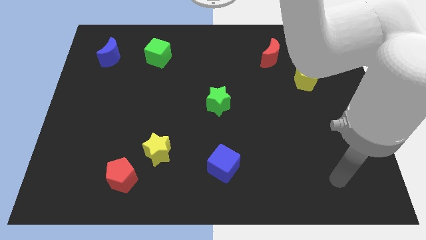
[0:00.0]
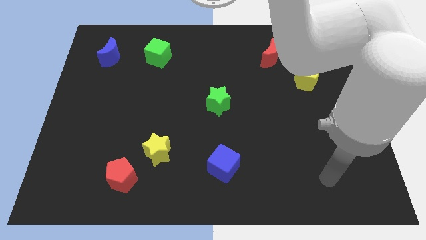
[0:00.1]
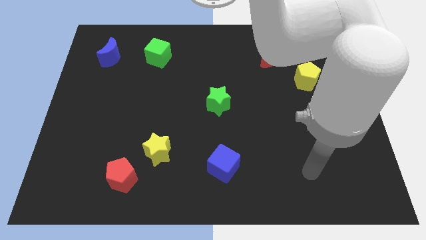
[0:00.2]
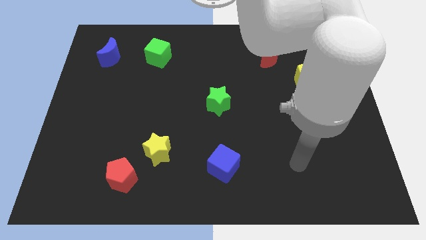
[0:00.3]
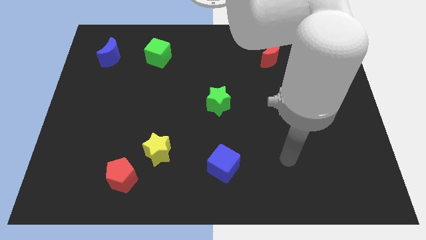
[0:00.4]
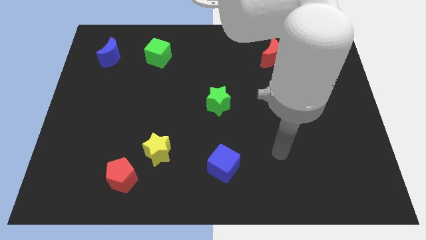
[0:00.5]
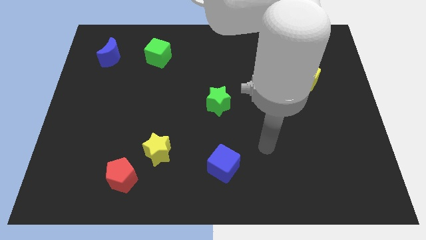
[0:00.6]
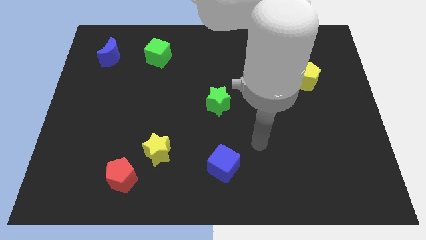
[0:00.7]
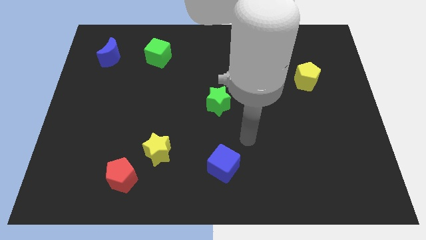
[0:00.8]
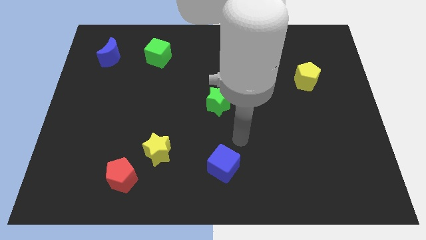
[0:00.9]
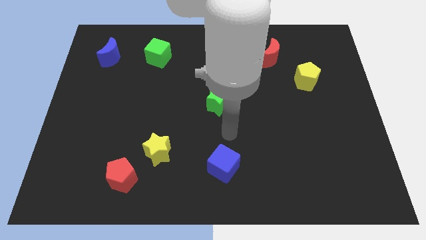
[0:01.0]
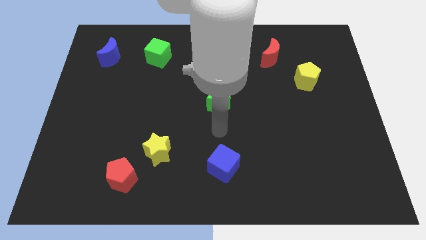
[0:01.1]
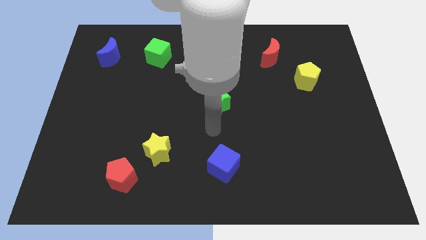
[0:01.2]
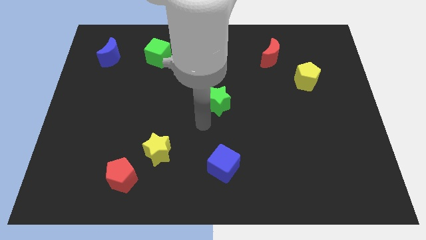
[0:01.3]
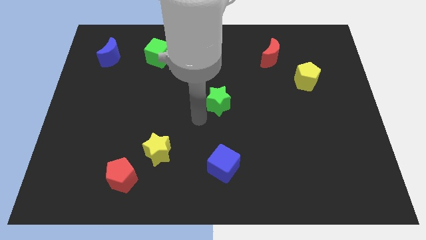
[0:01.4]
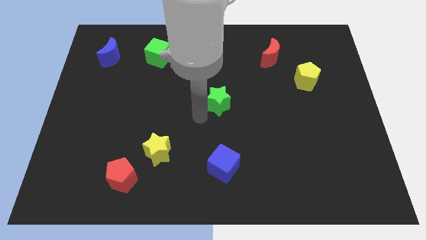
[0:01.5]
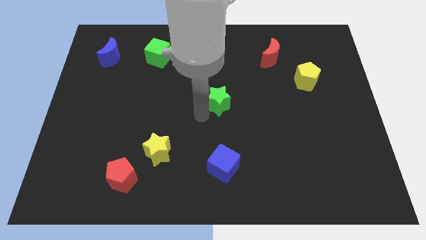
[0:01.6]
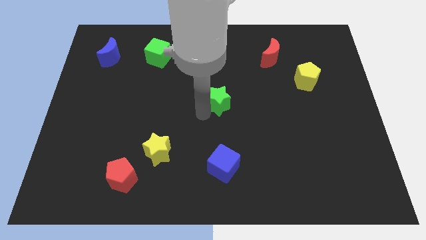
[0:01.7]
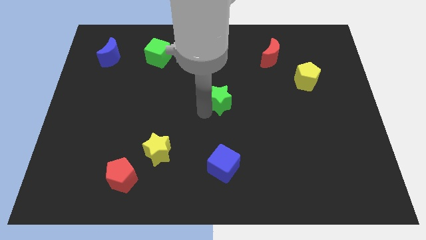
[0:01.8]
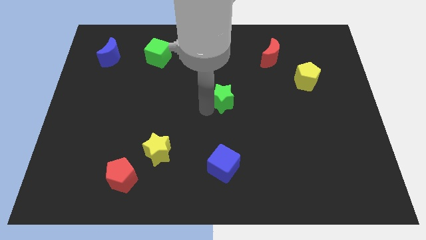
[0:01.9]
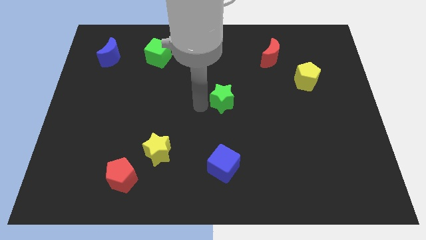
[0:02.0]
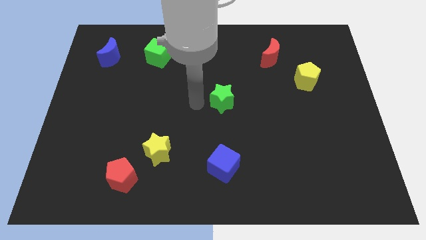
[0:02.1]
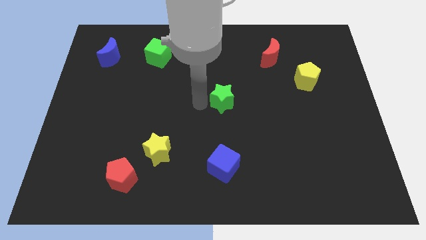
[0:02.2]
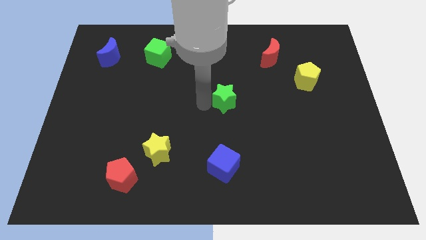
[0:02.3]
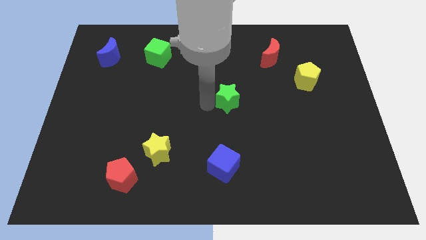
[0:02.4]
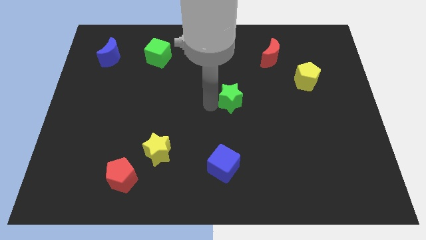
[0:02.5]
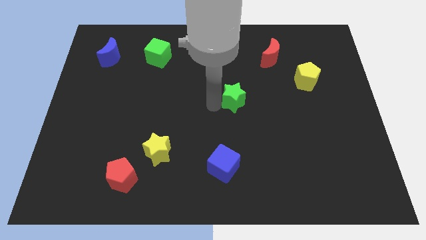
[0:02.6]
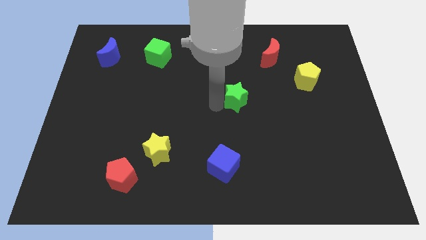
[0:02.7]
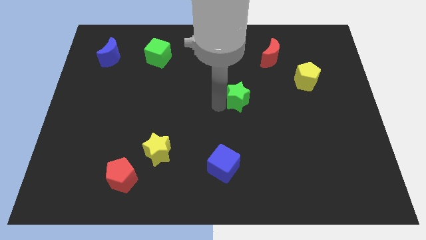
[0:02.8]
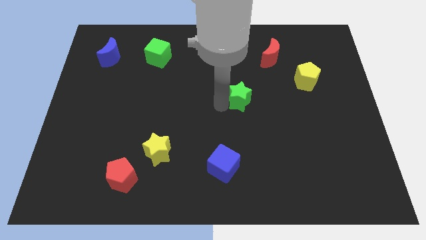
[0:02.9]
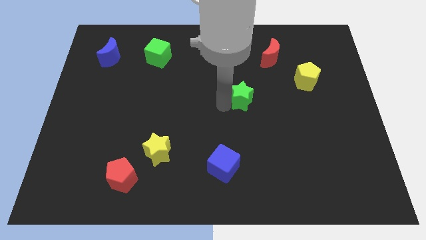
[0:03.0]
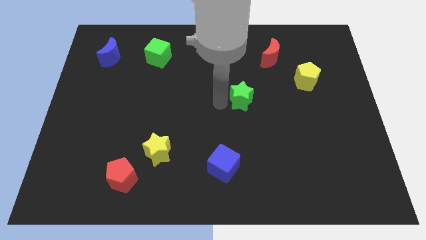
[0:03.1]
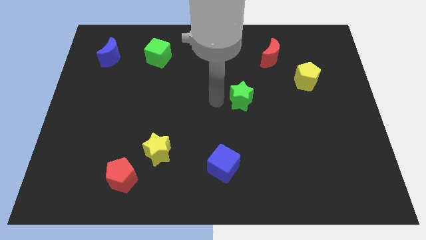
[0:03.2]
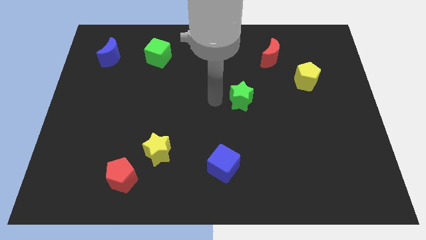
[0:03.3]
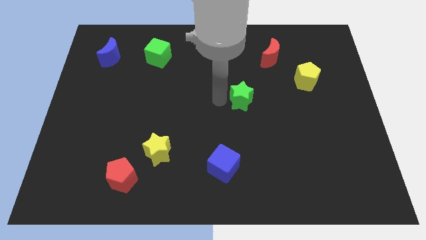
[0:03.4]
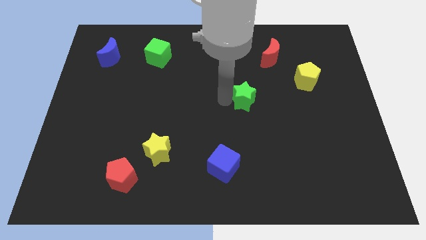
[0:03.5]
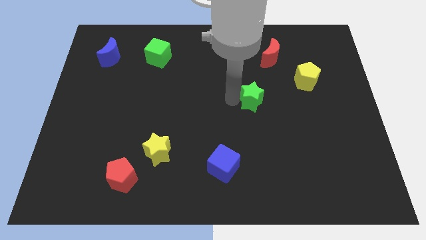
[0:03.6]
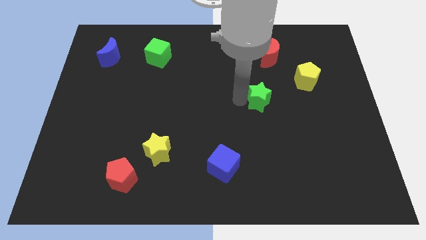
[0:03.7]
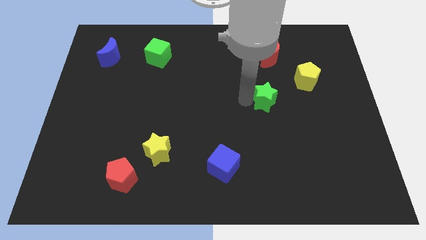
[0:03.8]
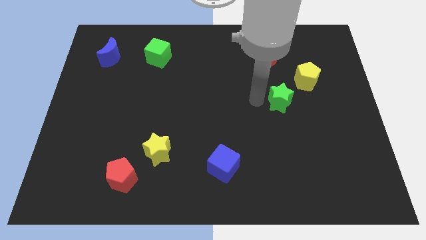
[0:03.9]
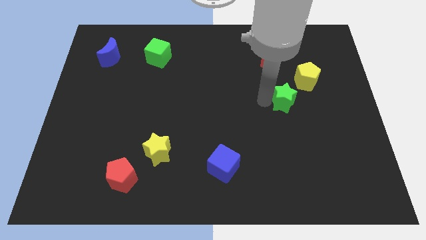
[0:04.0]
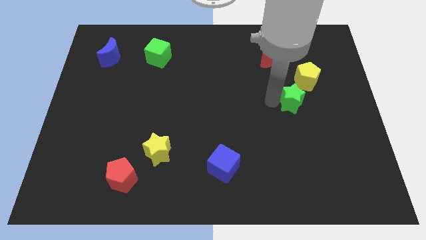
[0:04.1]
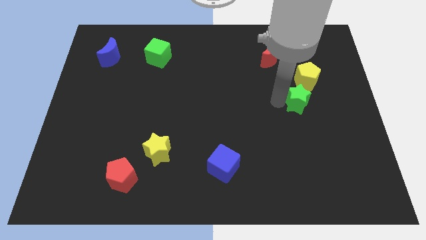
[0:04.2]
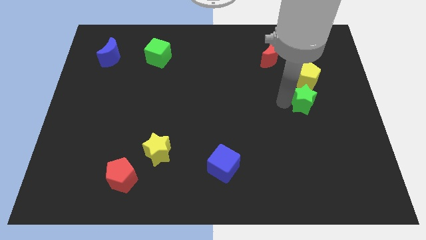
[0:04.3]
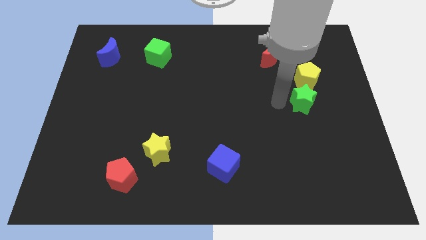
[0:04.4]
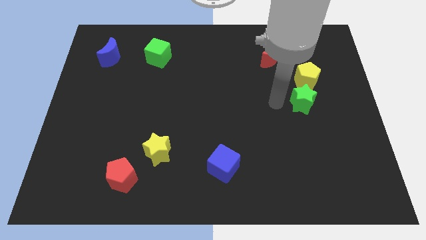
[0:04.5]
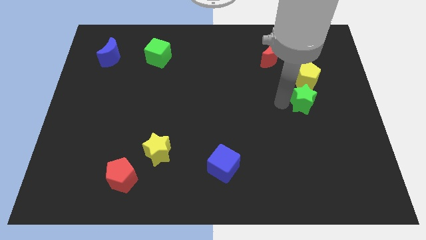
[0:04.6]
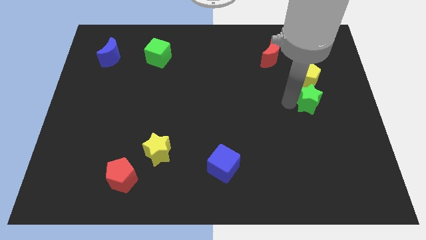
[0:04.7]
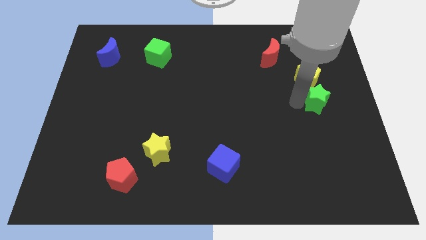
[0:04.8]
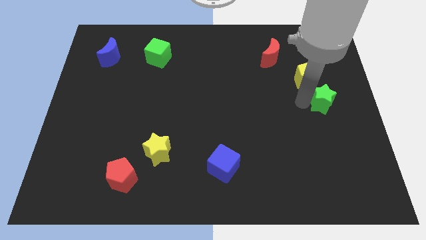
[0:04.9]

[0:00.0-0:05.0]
push the green star to the right side

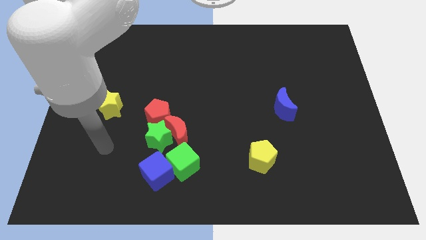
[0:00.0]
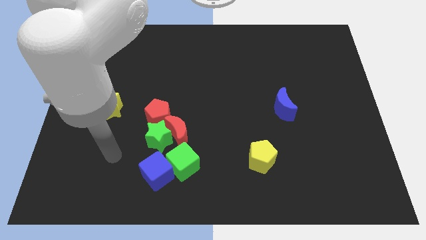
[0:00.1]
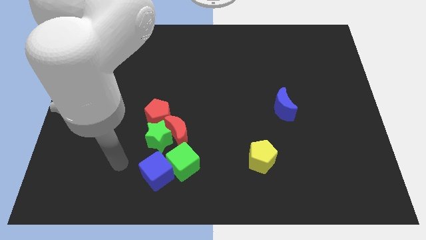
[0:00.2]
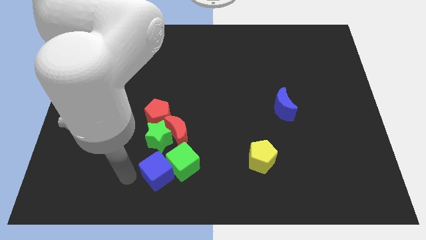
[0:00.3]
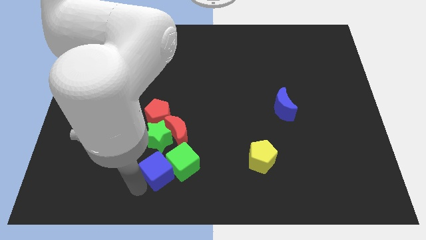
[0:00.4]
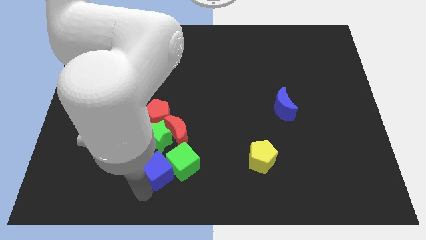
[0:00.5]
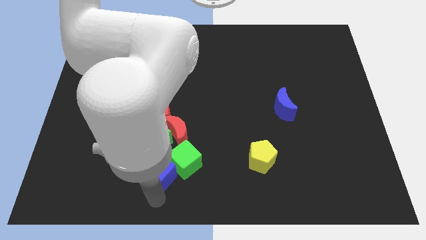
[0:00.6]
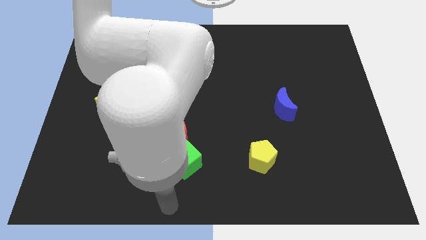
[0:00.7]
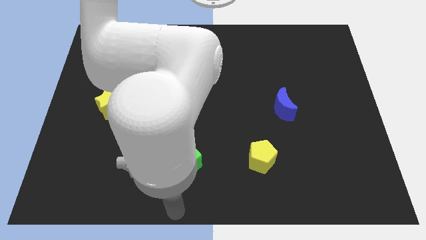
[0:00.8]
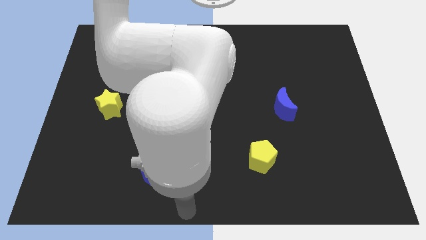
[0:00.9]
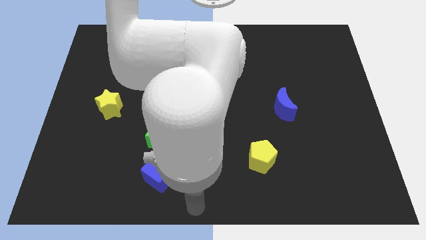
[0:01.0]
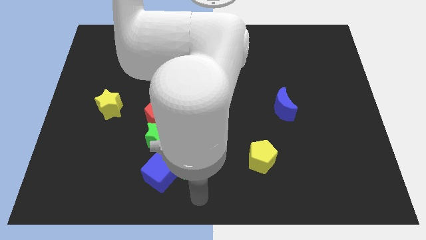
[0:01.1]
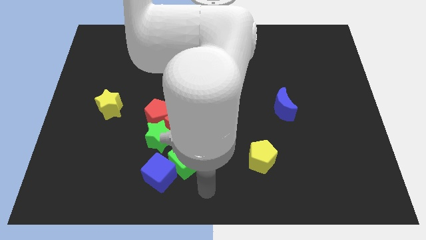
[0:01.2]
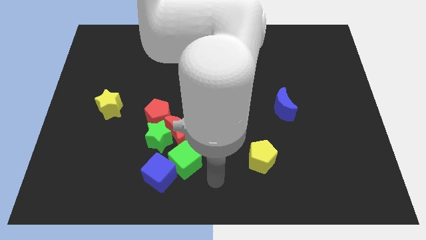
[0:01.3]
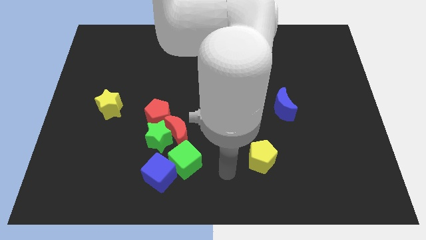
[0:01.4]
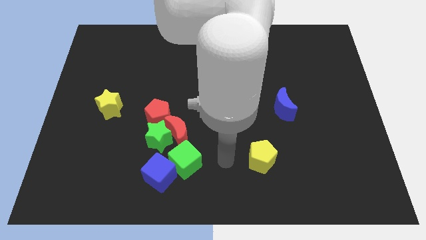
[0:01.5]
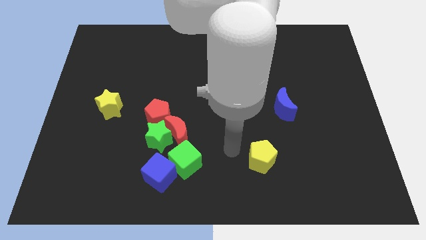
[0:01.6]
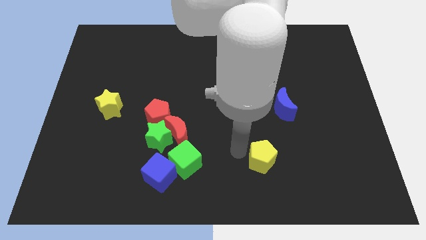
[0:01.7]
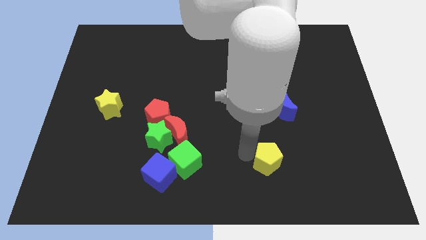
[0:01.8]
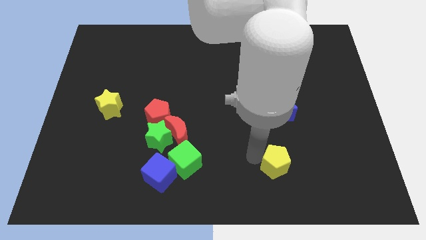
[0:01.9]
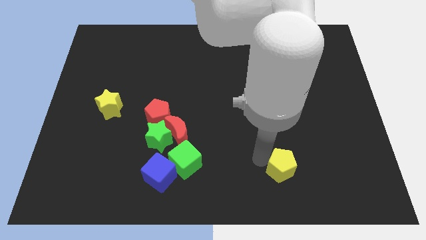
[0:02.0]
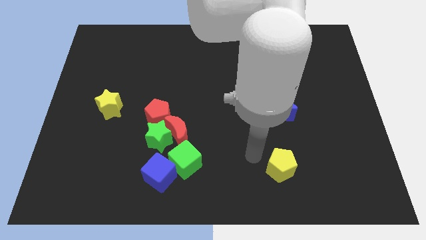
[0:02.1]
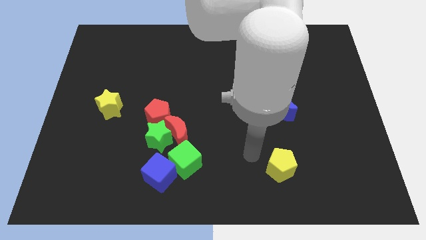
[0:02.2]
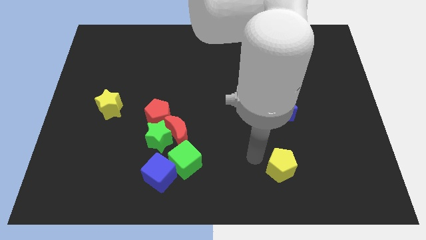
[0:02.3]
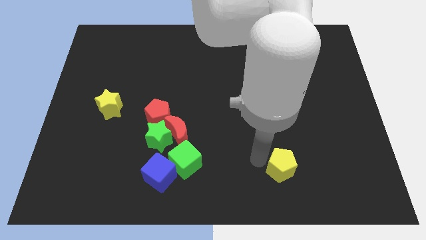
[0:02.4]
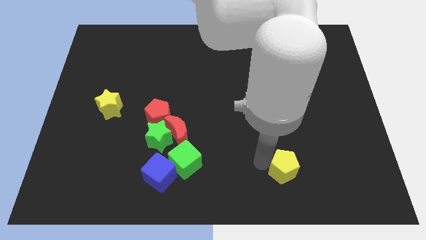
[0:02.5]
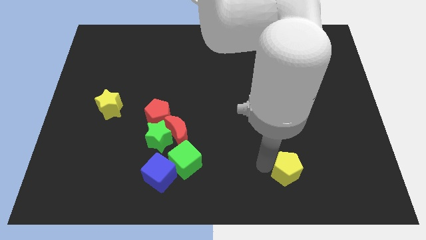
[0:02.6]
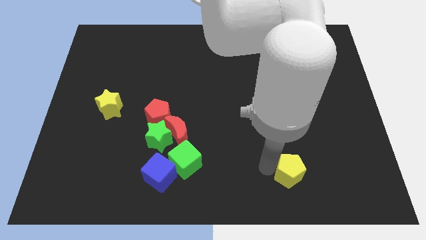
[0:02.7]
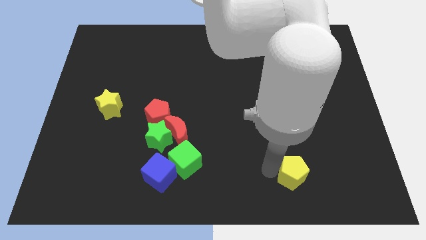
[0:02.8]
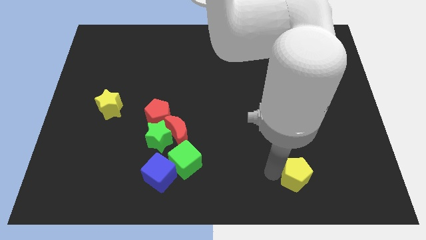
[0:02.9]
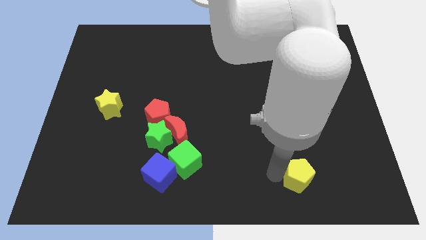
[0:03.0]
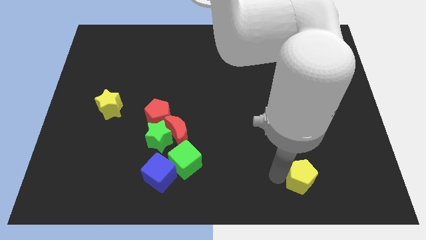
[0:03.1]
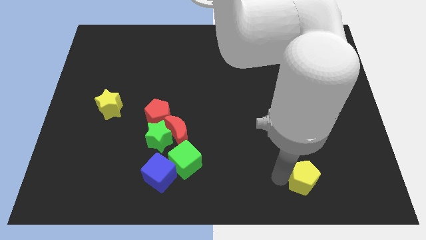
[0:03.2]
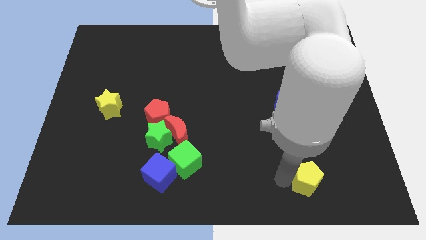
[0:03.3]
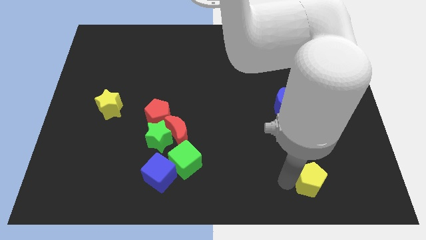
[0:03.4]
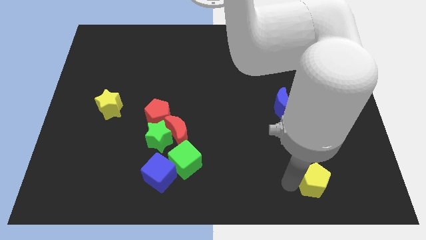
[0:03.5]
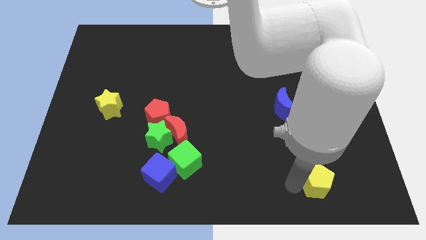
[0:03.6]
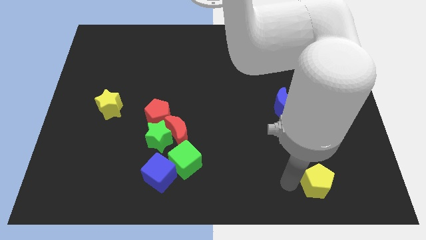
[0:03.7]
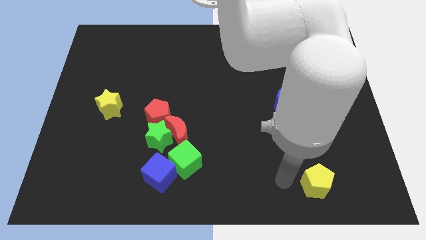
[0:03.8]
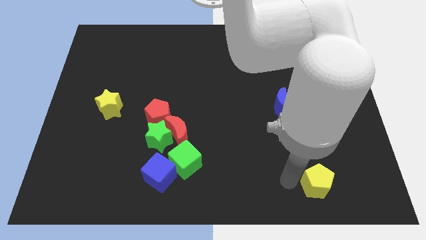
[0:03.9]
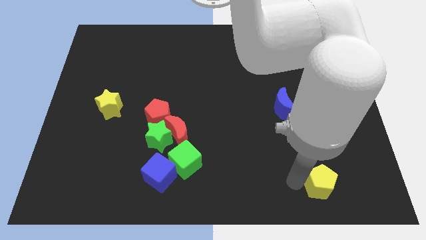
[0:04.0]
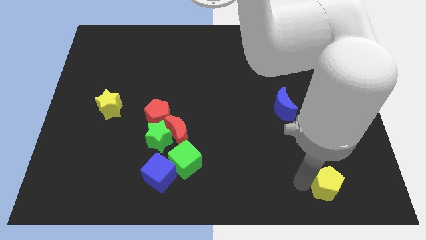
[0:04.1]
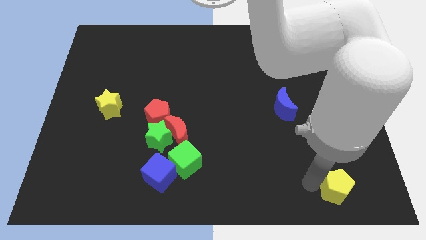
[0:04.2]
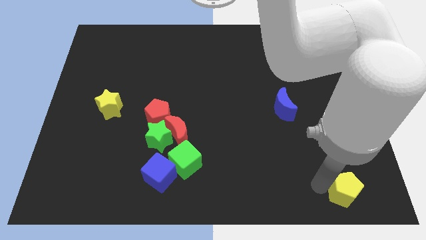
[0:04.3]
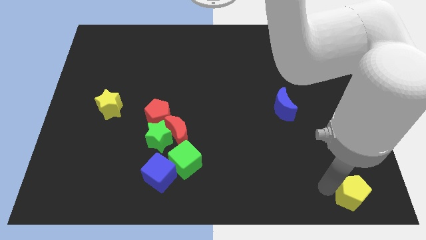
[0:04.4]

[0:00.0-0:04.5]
slide the yellow pentagon to the lower right corner
